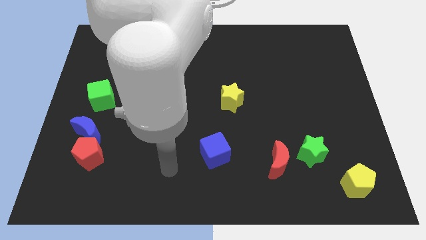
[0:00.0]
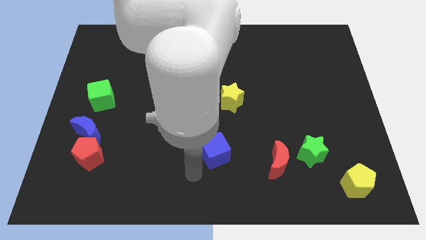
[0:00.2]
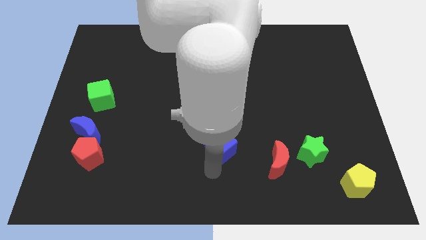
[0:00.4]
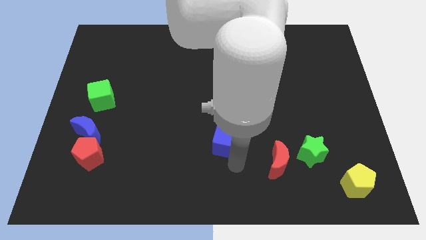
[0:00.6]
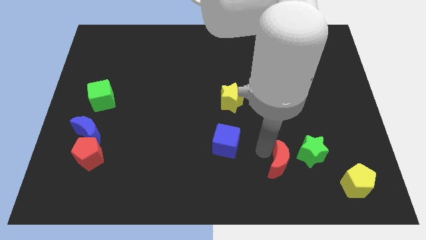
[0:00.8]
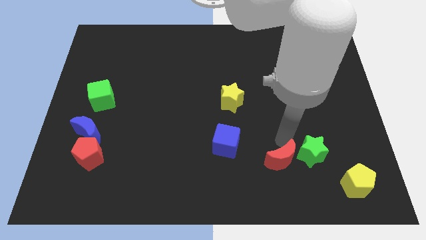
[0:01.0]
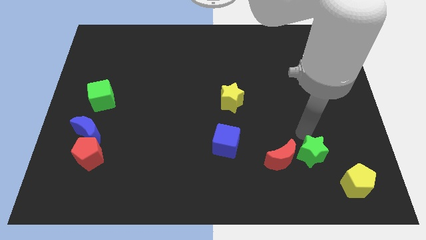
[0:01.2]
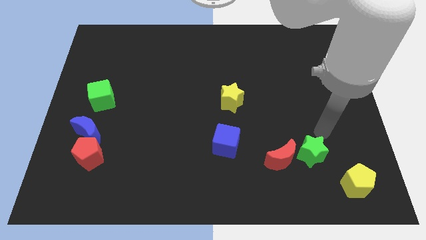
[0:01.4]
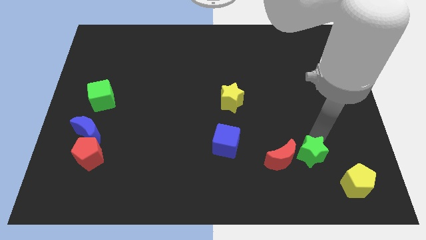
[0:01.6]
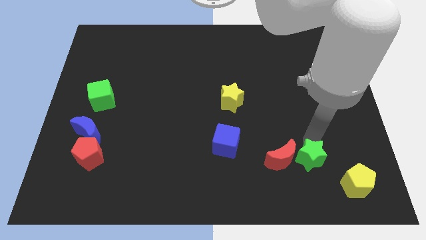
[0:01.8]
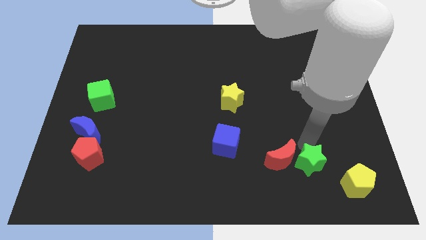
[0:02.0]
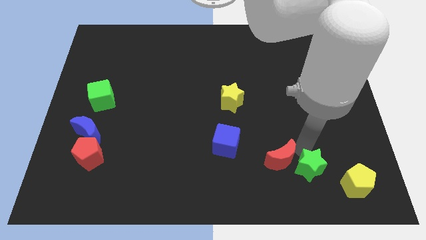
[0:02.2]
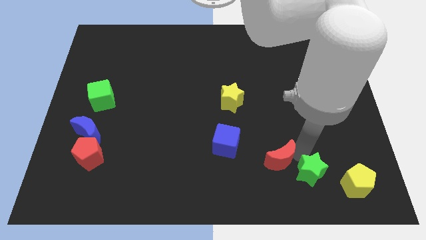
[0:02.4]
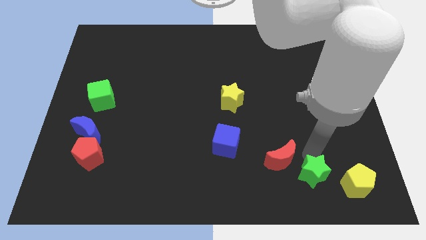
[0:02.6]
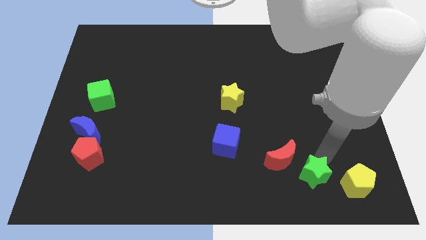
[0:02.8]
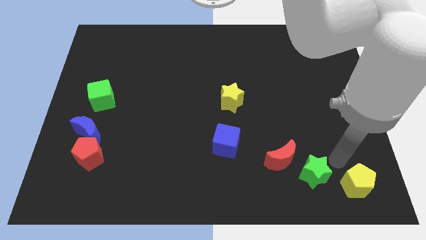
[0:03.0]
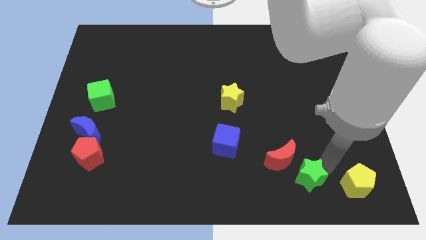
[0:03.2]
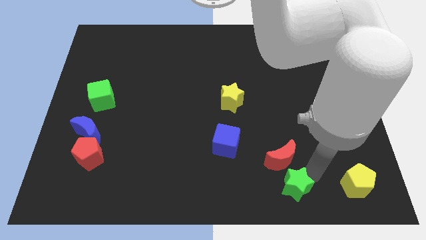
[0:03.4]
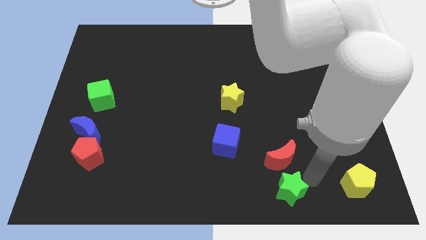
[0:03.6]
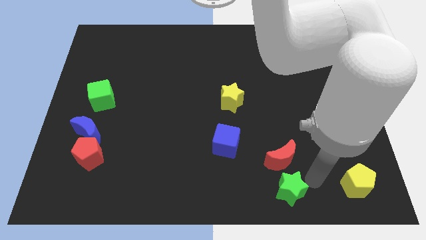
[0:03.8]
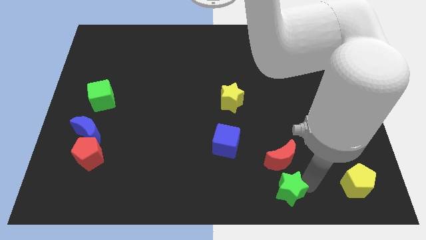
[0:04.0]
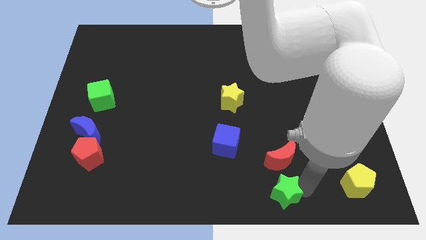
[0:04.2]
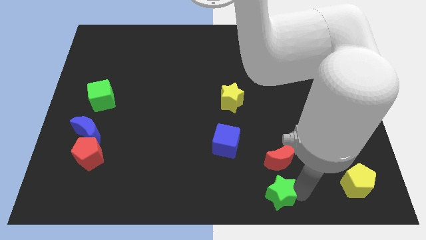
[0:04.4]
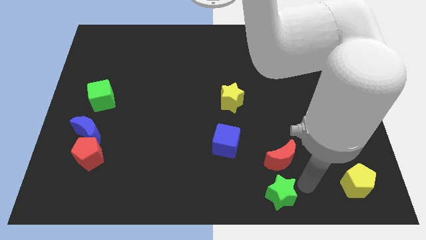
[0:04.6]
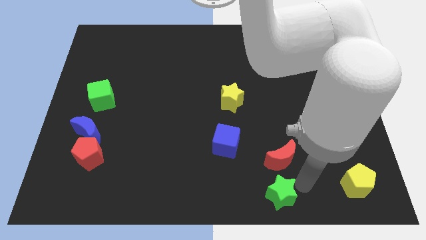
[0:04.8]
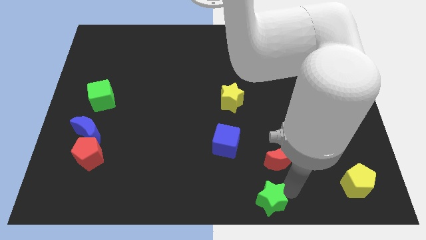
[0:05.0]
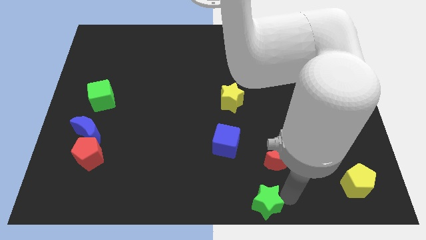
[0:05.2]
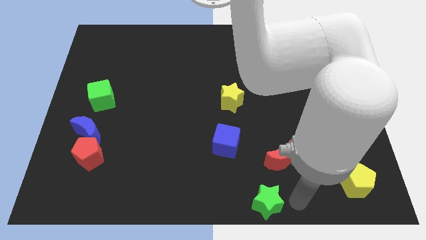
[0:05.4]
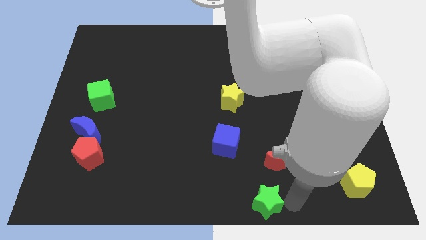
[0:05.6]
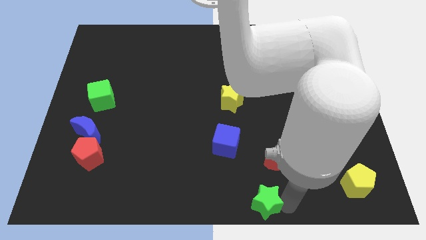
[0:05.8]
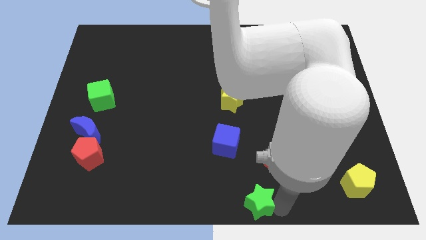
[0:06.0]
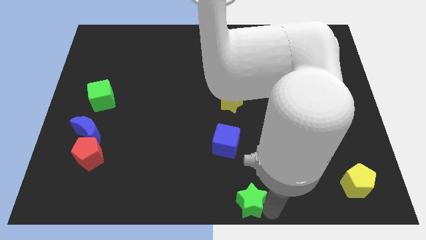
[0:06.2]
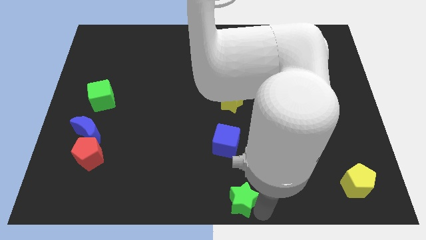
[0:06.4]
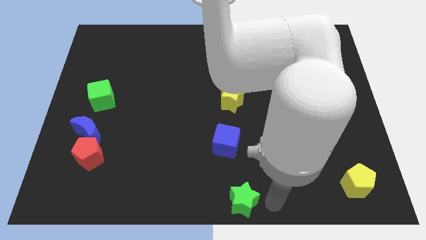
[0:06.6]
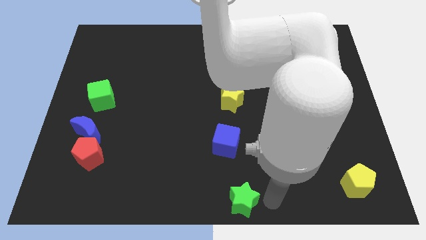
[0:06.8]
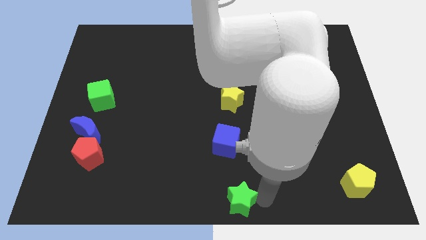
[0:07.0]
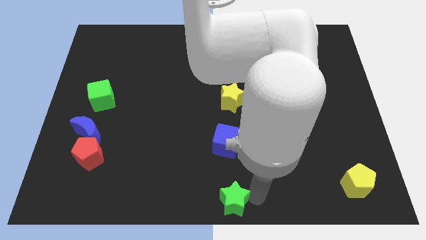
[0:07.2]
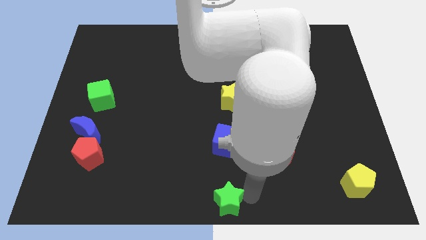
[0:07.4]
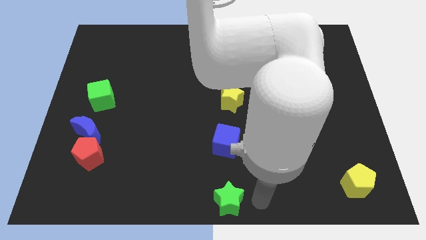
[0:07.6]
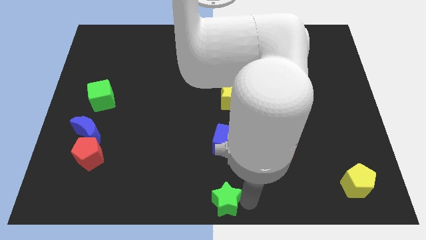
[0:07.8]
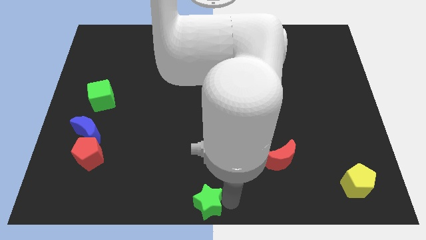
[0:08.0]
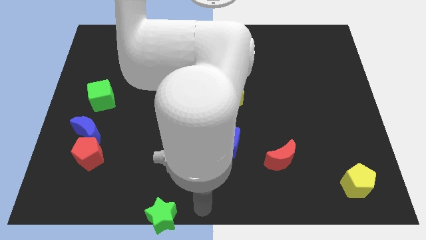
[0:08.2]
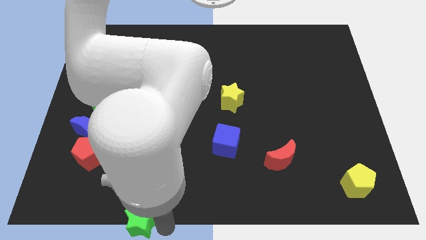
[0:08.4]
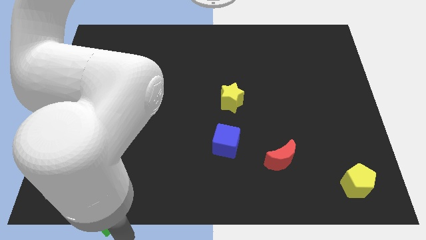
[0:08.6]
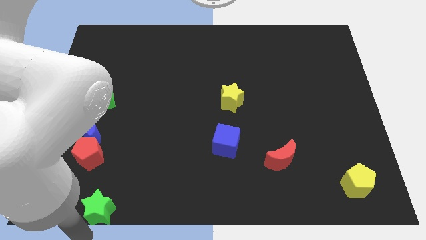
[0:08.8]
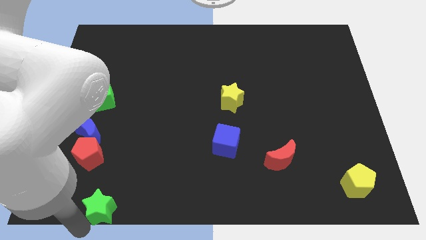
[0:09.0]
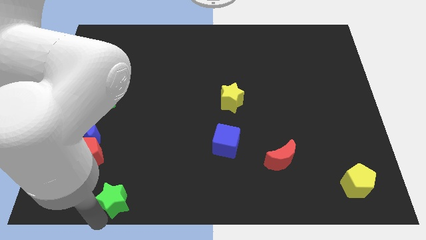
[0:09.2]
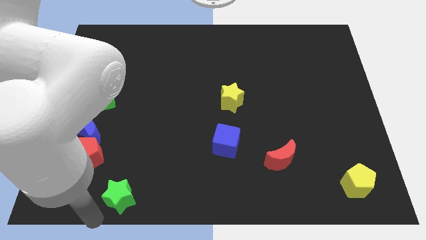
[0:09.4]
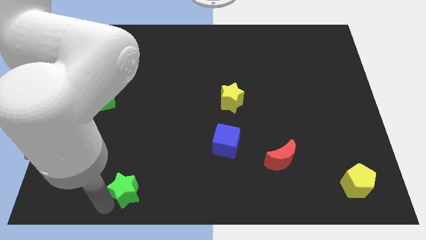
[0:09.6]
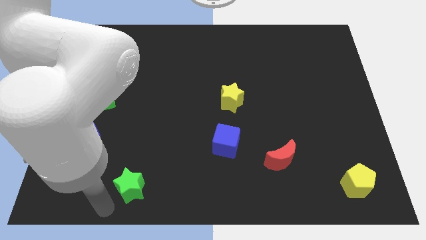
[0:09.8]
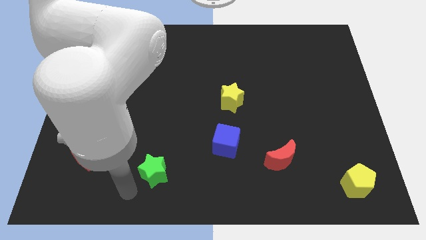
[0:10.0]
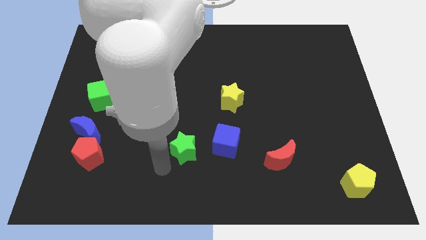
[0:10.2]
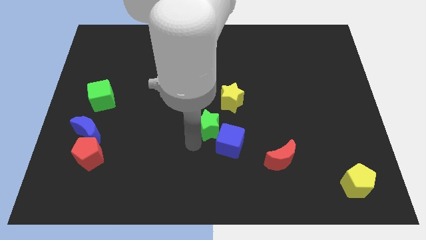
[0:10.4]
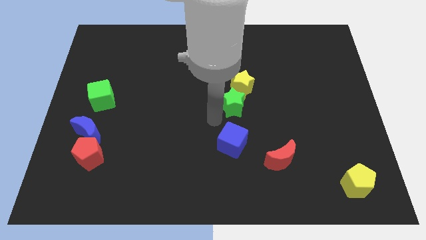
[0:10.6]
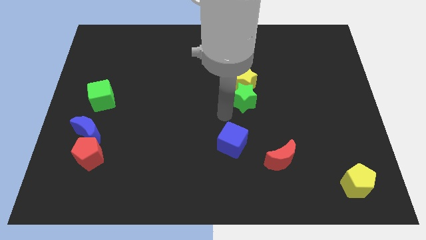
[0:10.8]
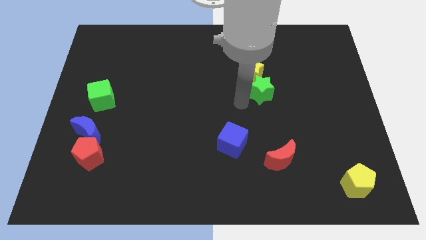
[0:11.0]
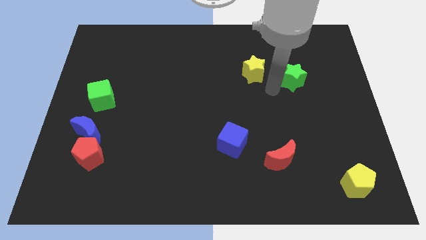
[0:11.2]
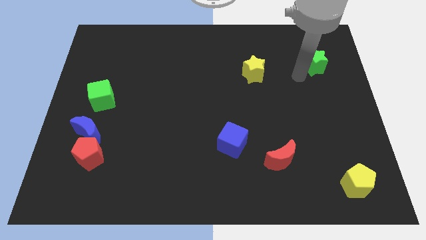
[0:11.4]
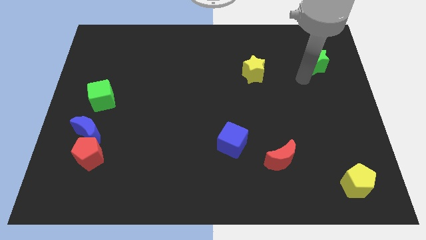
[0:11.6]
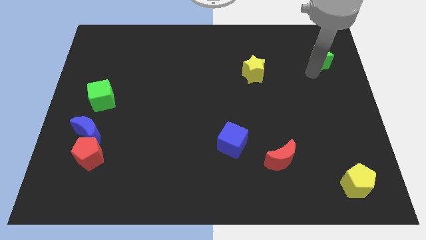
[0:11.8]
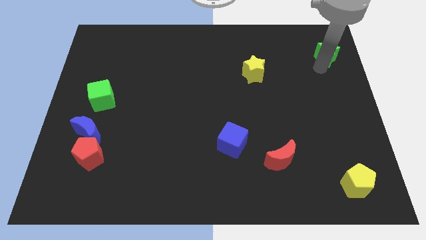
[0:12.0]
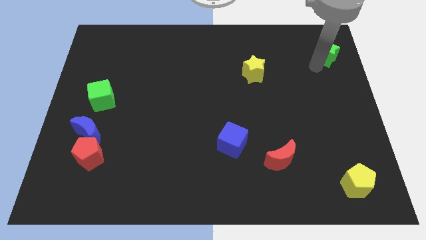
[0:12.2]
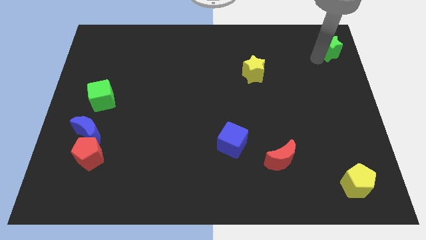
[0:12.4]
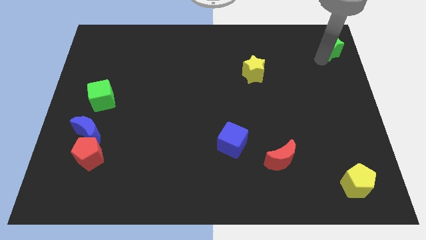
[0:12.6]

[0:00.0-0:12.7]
push the green star to the top right

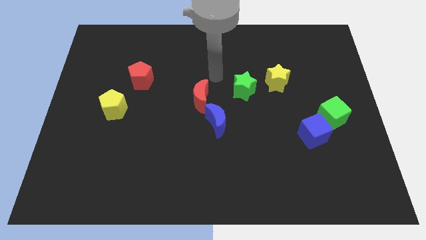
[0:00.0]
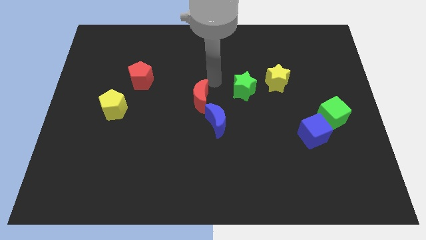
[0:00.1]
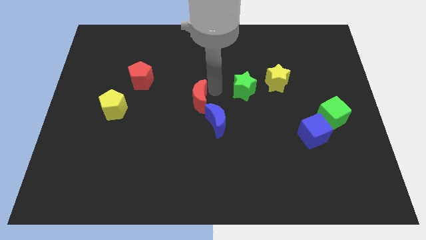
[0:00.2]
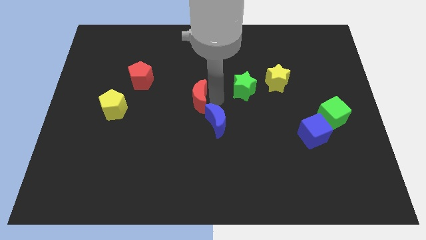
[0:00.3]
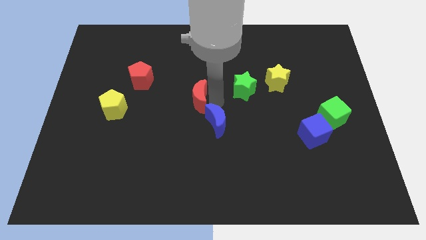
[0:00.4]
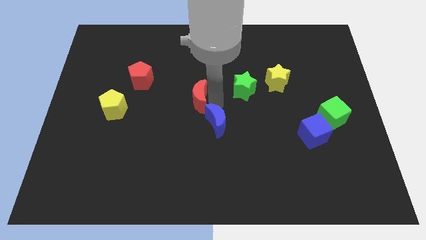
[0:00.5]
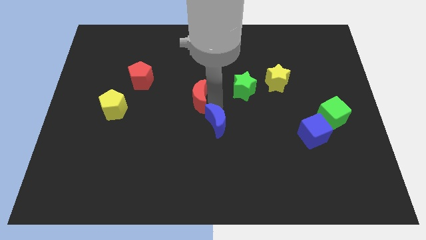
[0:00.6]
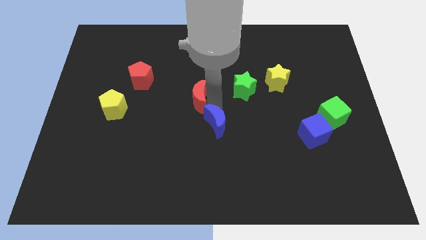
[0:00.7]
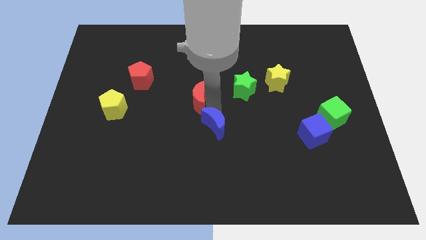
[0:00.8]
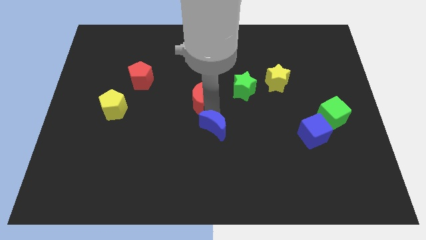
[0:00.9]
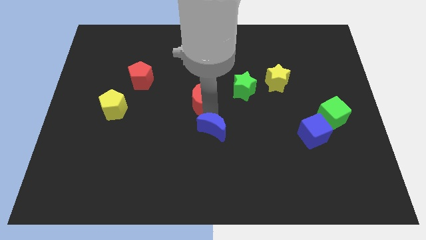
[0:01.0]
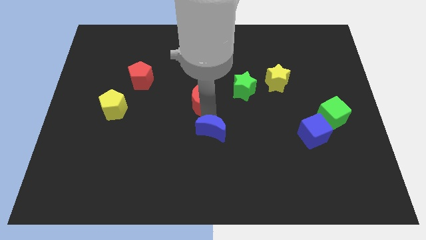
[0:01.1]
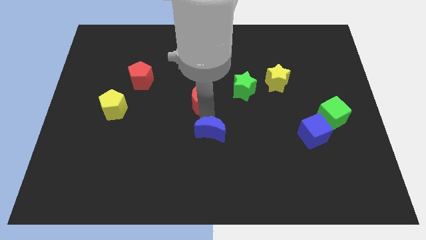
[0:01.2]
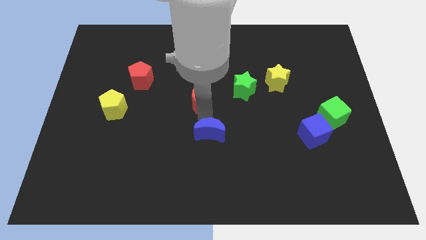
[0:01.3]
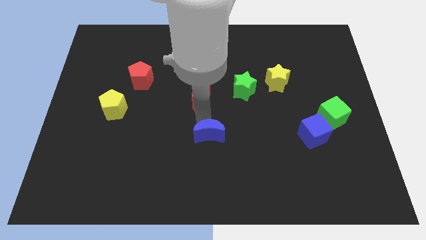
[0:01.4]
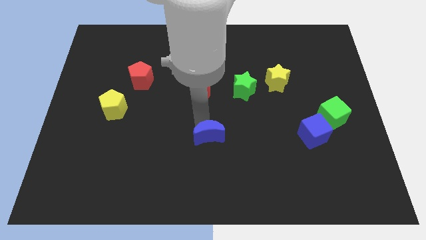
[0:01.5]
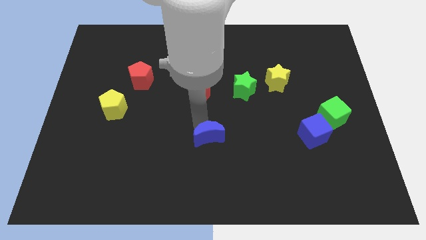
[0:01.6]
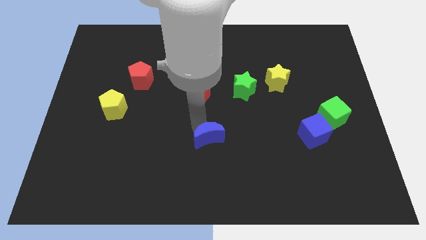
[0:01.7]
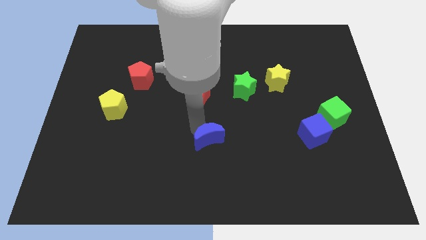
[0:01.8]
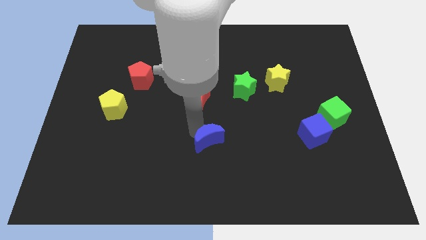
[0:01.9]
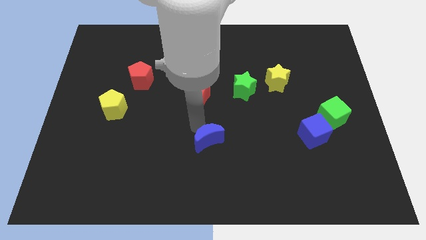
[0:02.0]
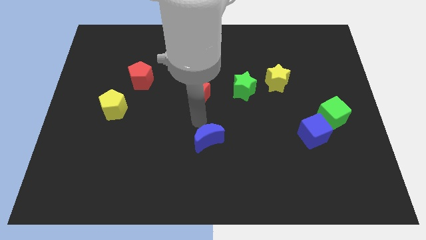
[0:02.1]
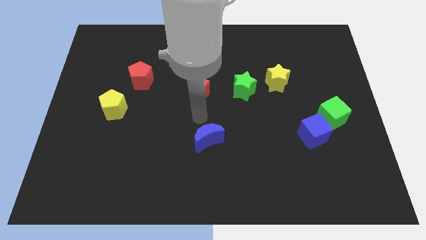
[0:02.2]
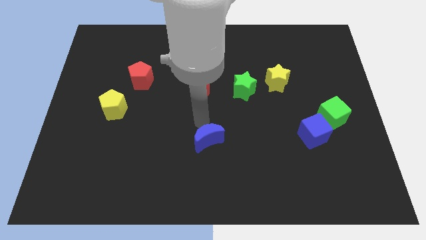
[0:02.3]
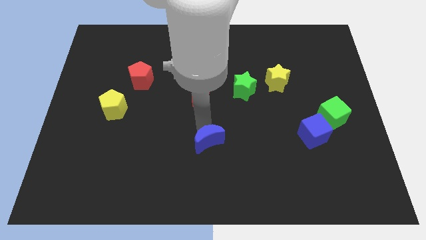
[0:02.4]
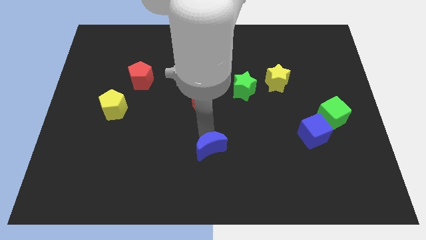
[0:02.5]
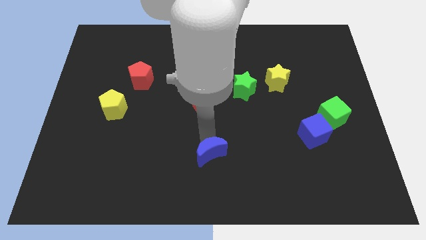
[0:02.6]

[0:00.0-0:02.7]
move the blue moon to the bottom
